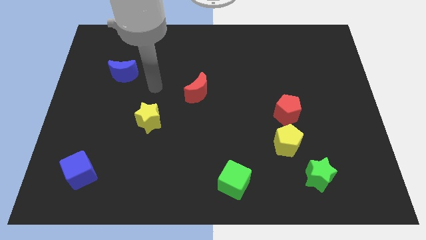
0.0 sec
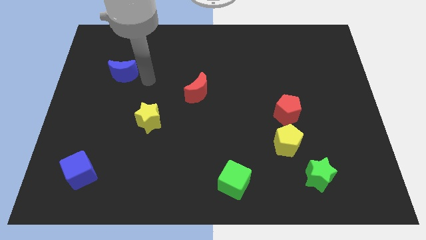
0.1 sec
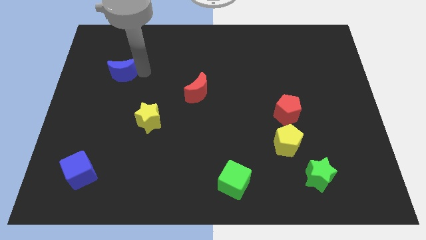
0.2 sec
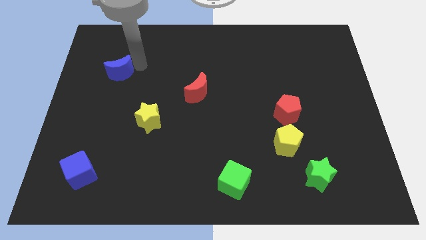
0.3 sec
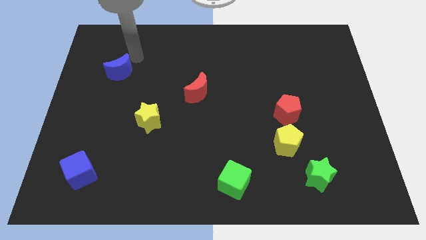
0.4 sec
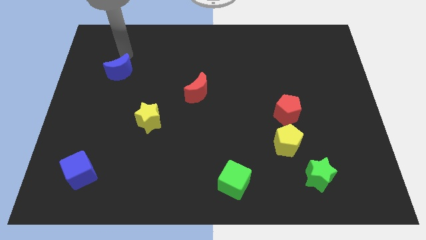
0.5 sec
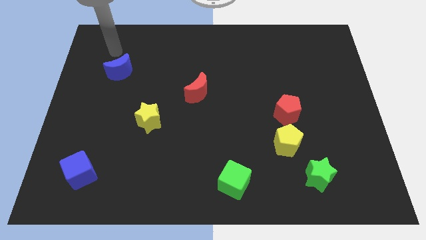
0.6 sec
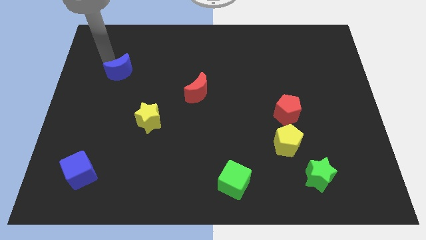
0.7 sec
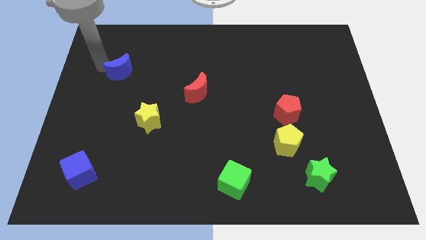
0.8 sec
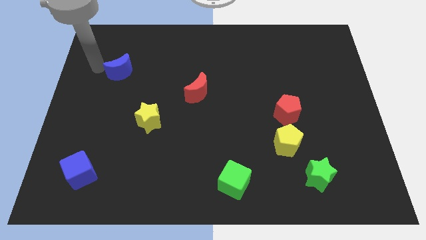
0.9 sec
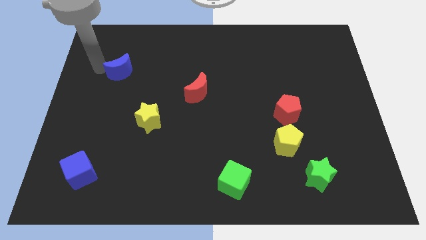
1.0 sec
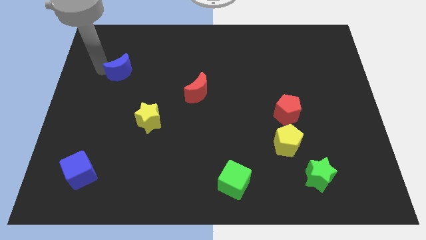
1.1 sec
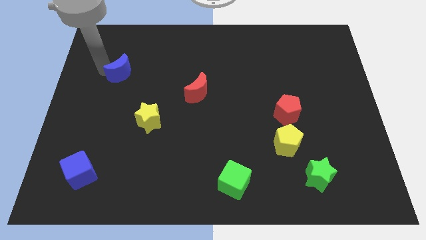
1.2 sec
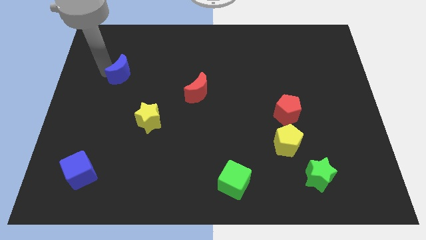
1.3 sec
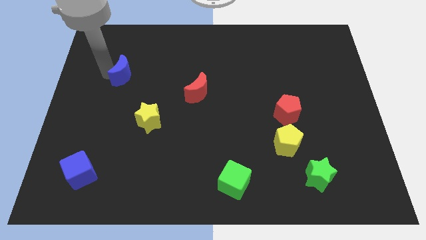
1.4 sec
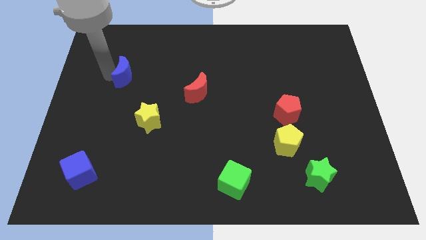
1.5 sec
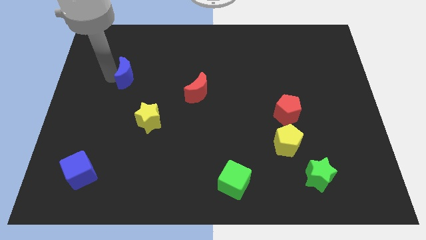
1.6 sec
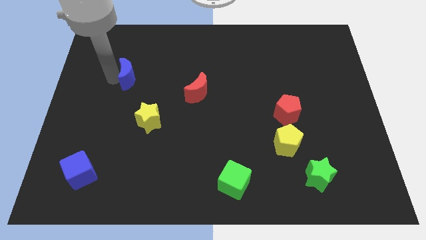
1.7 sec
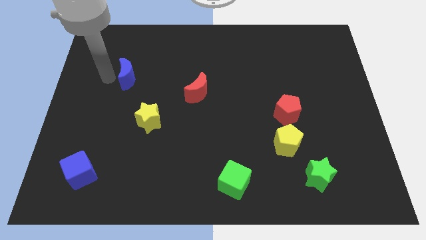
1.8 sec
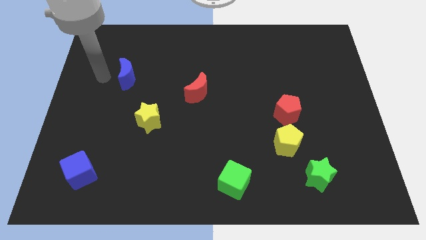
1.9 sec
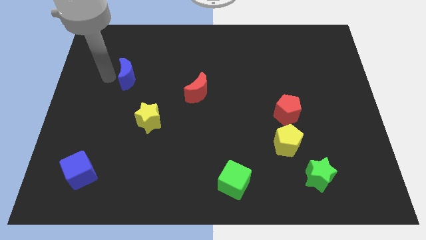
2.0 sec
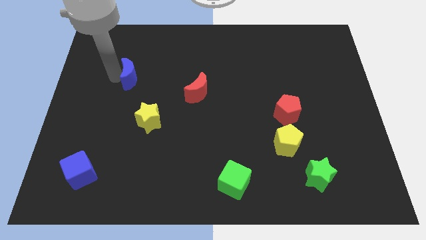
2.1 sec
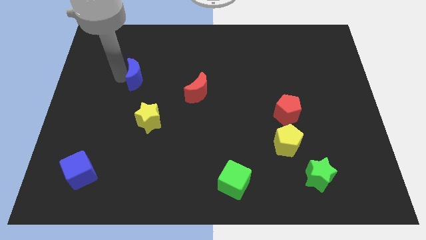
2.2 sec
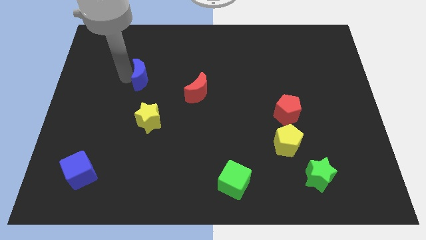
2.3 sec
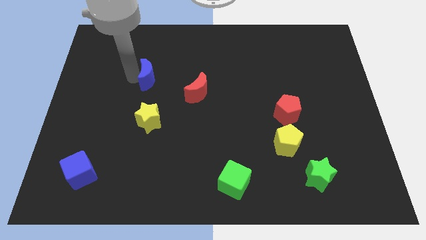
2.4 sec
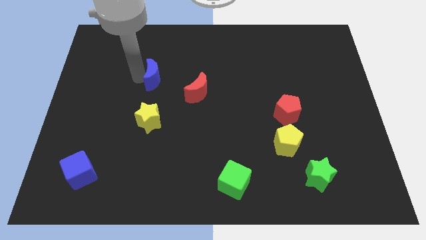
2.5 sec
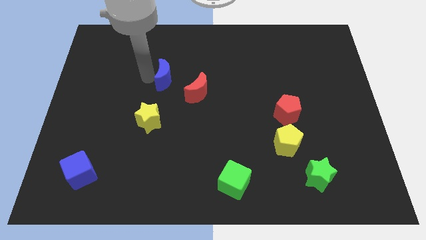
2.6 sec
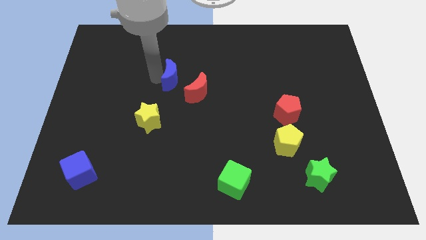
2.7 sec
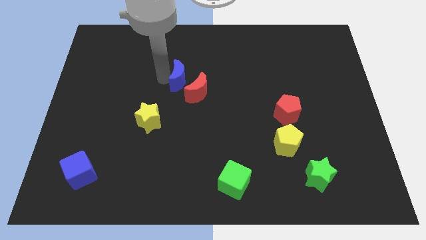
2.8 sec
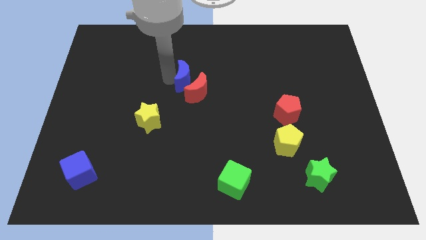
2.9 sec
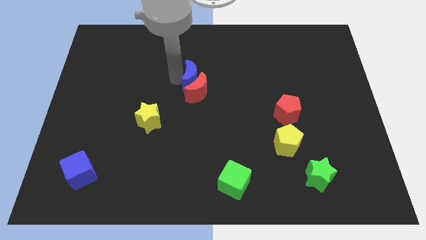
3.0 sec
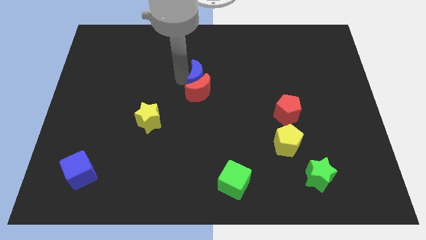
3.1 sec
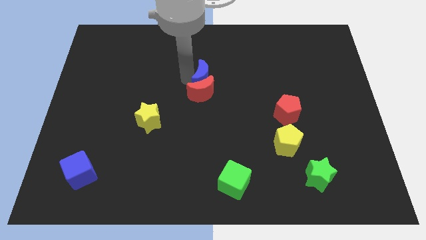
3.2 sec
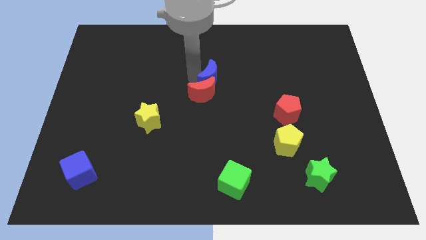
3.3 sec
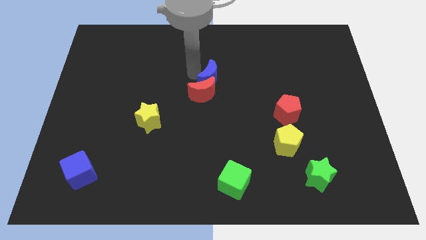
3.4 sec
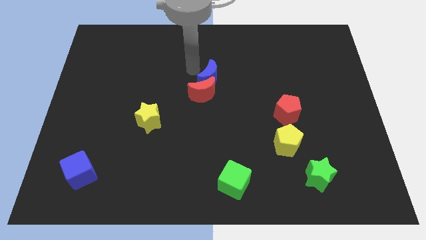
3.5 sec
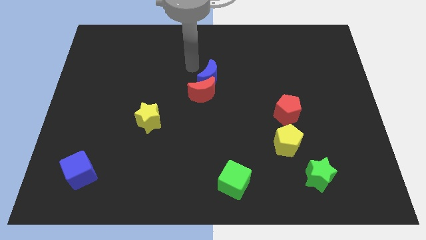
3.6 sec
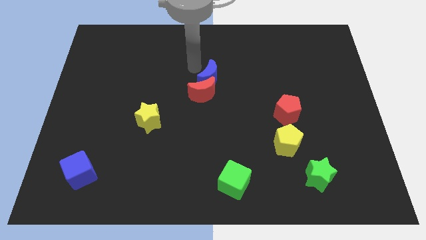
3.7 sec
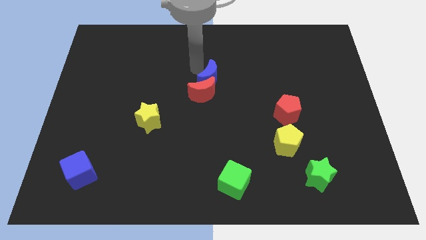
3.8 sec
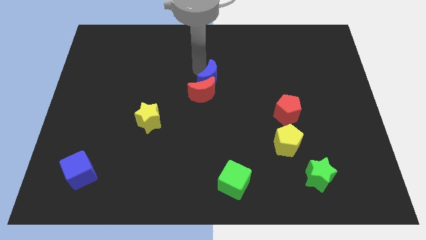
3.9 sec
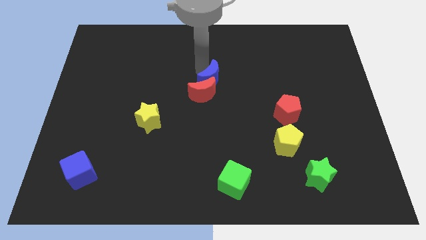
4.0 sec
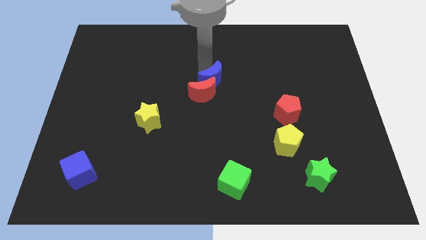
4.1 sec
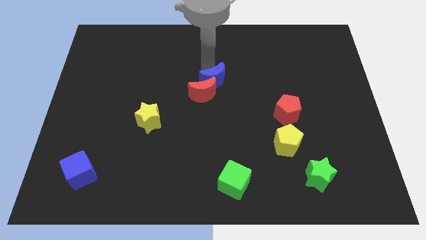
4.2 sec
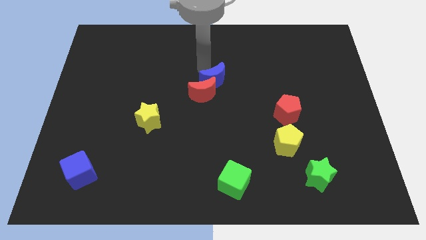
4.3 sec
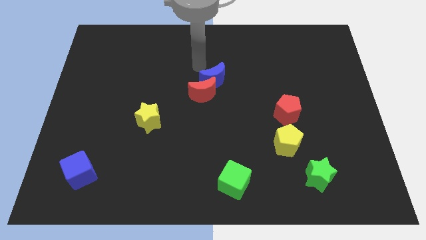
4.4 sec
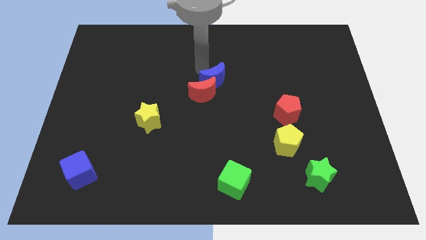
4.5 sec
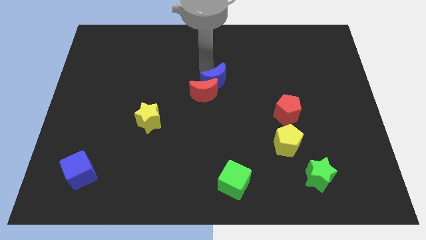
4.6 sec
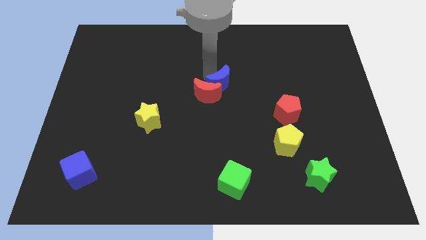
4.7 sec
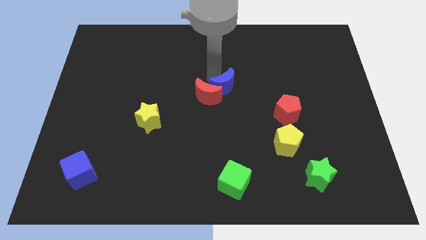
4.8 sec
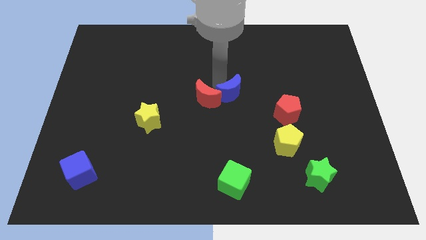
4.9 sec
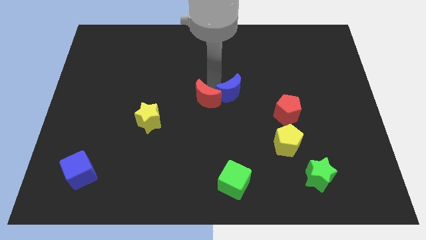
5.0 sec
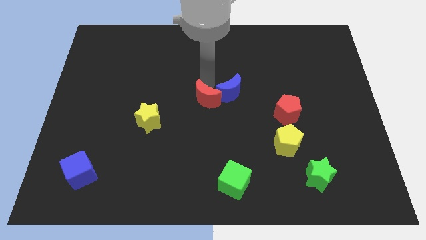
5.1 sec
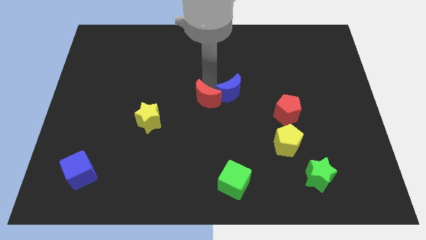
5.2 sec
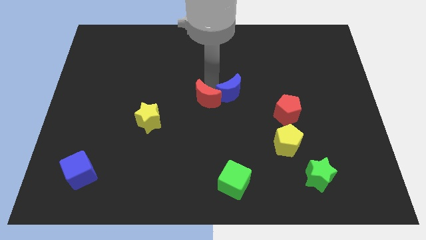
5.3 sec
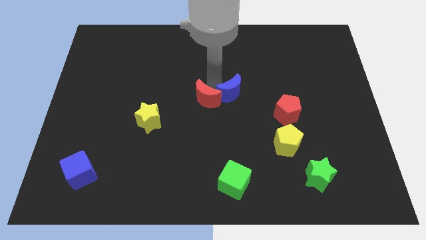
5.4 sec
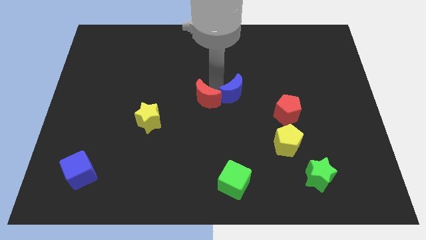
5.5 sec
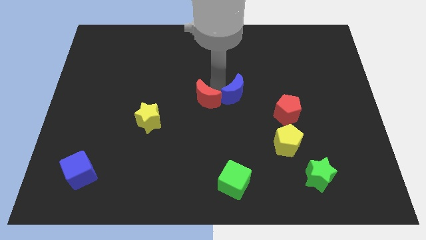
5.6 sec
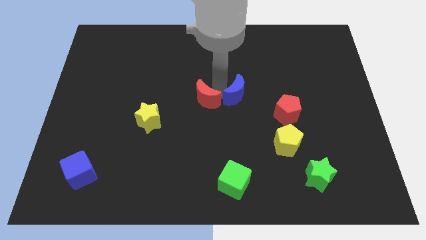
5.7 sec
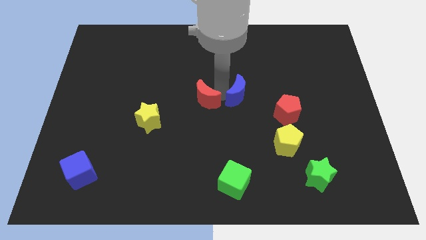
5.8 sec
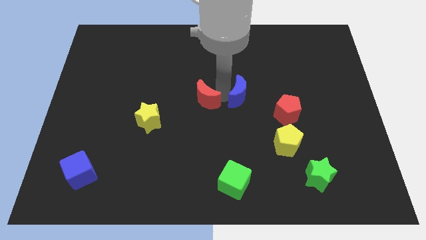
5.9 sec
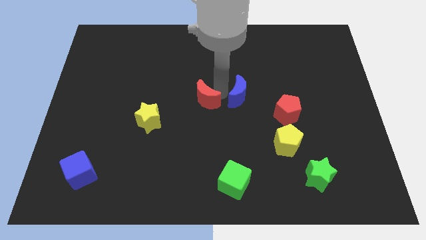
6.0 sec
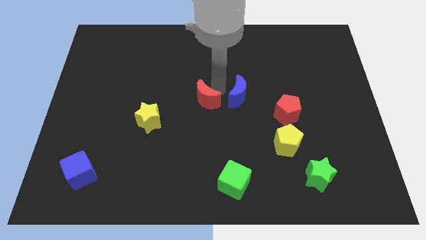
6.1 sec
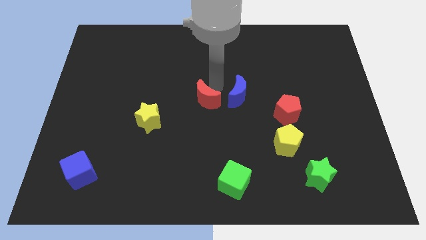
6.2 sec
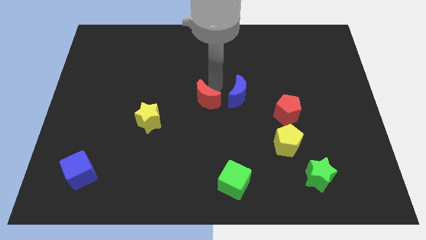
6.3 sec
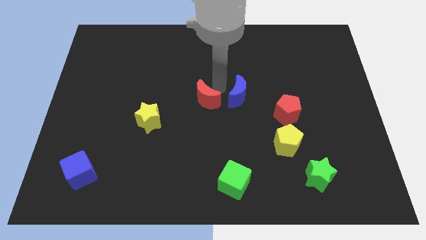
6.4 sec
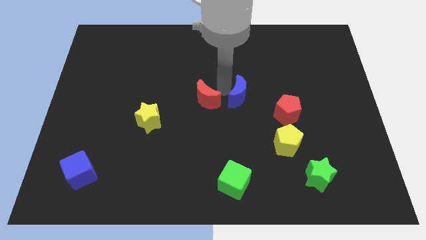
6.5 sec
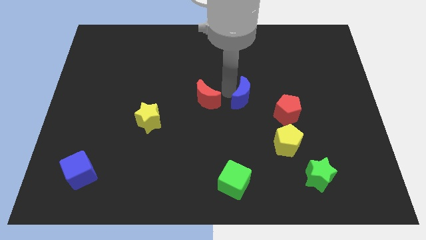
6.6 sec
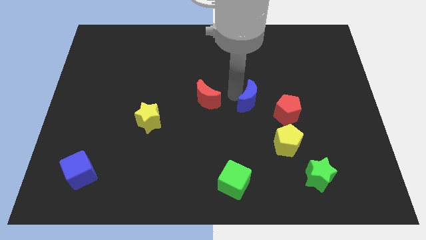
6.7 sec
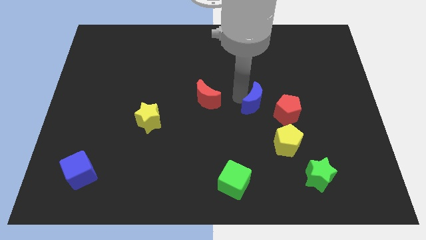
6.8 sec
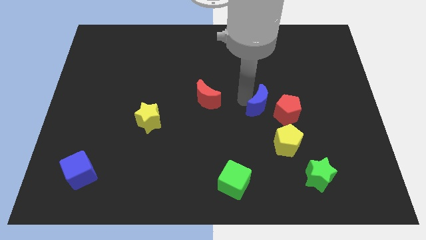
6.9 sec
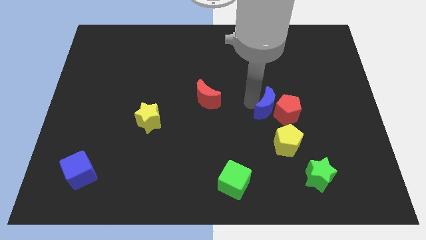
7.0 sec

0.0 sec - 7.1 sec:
slide the blue moon close to the red pentagon
